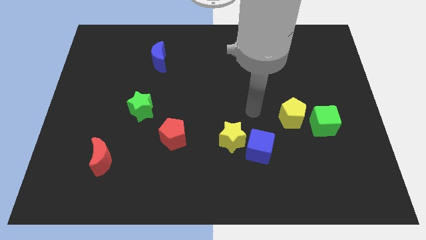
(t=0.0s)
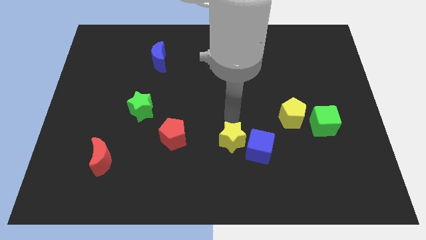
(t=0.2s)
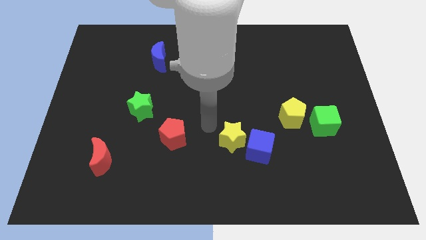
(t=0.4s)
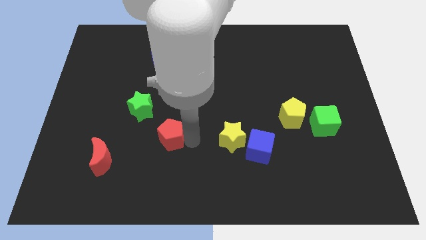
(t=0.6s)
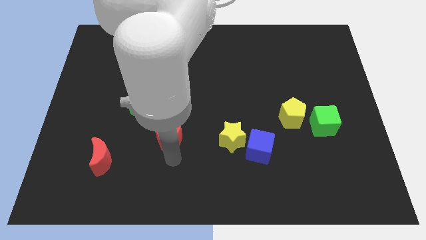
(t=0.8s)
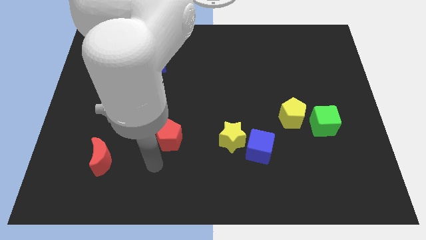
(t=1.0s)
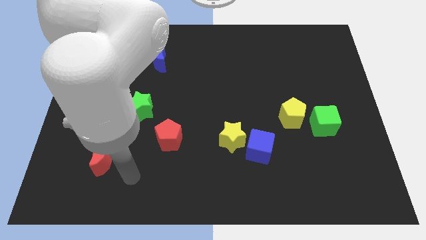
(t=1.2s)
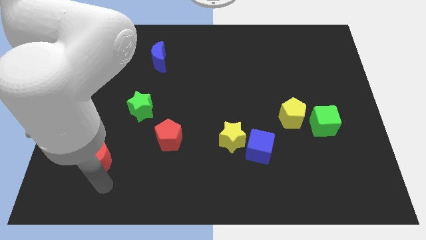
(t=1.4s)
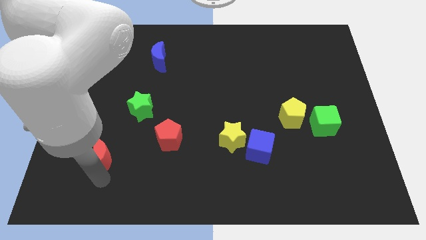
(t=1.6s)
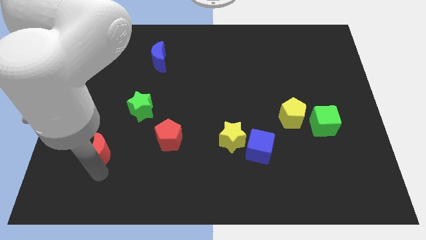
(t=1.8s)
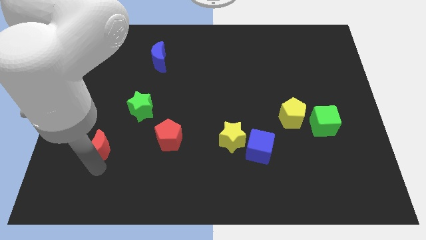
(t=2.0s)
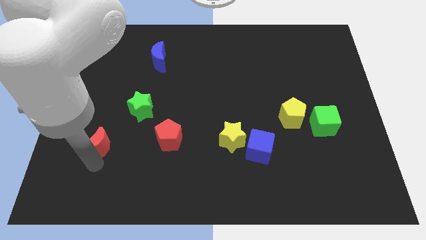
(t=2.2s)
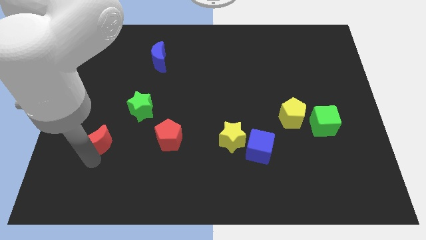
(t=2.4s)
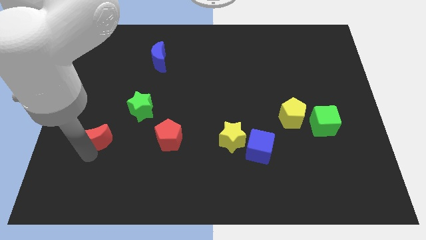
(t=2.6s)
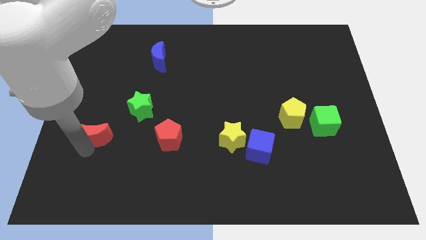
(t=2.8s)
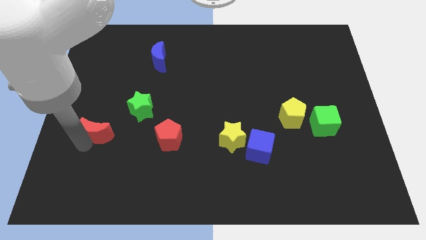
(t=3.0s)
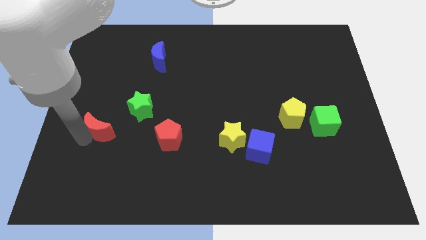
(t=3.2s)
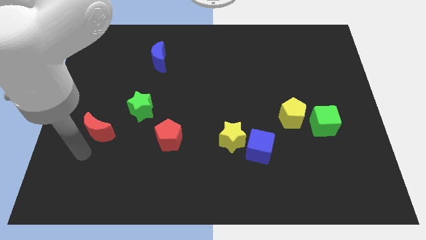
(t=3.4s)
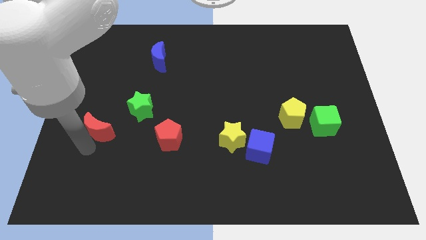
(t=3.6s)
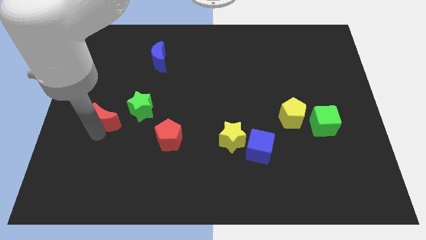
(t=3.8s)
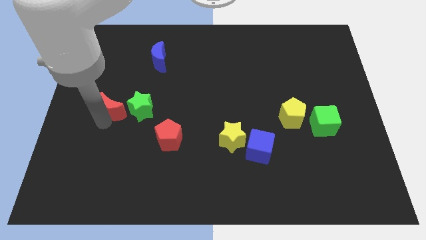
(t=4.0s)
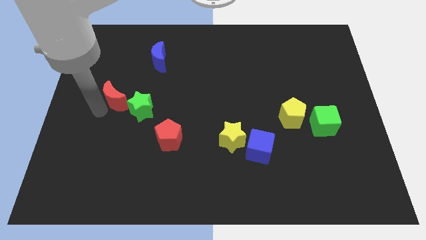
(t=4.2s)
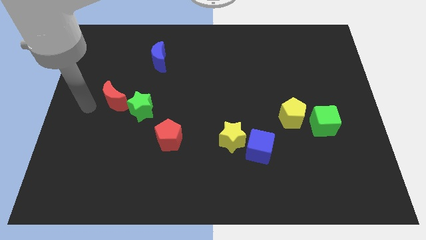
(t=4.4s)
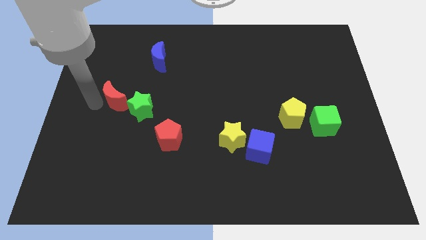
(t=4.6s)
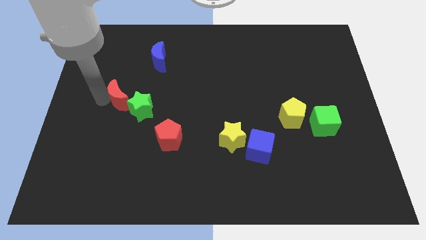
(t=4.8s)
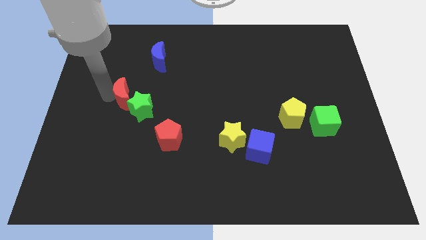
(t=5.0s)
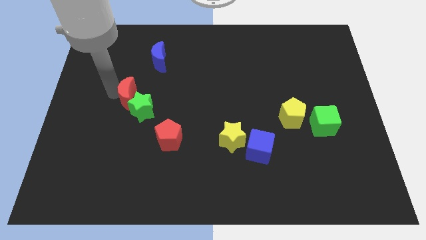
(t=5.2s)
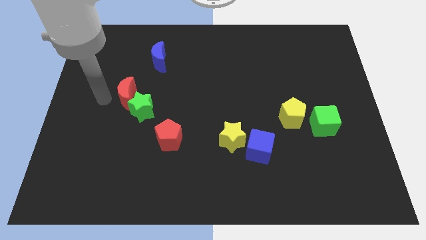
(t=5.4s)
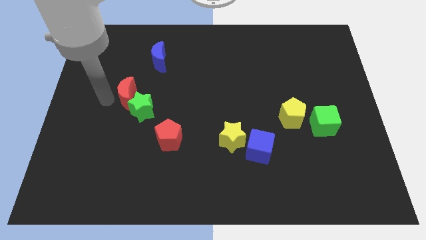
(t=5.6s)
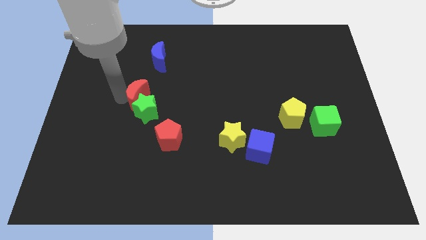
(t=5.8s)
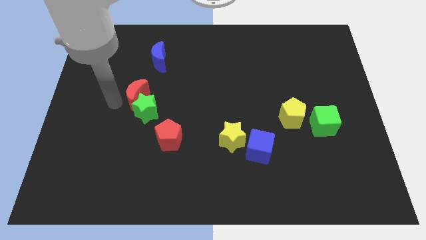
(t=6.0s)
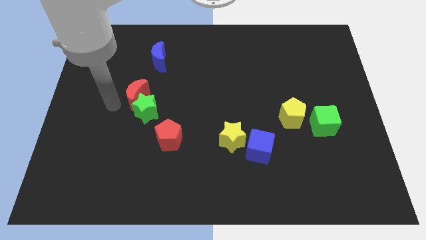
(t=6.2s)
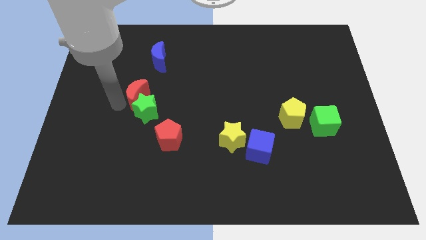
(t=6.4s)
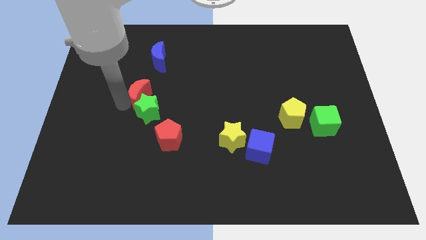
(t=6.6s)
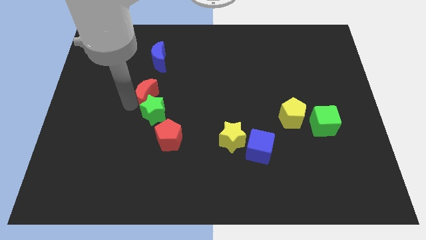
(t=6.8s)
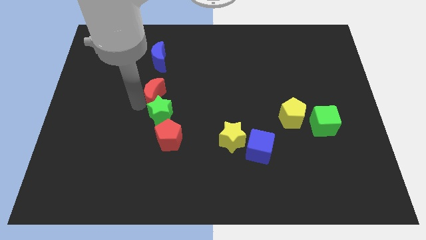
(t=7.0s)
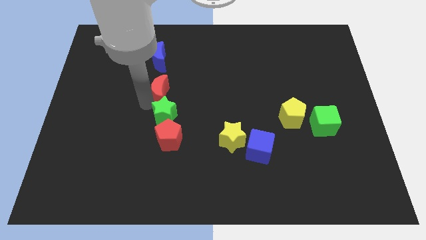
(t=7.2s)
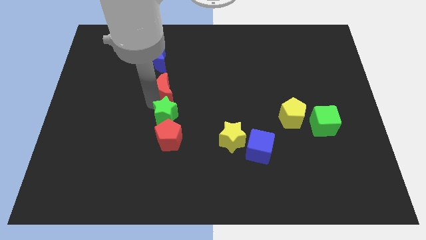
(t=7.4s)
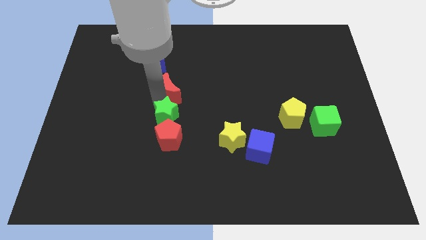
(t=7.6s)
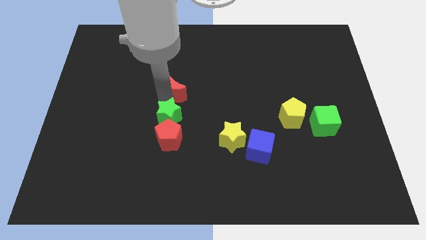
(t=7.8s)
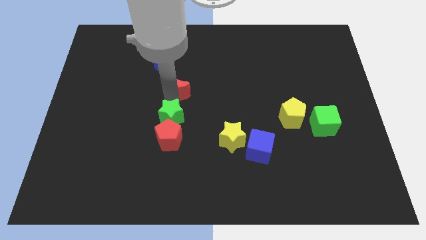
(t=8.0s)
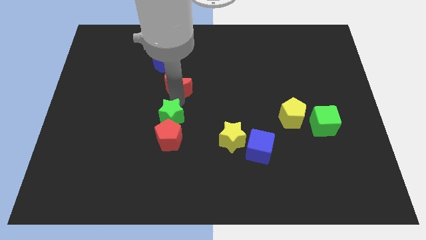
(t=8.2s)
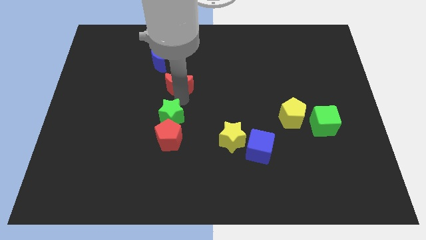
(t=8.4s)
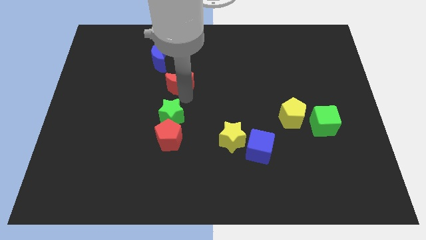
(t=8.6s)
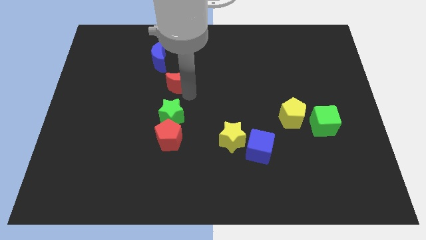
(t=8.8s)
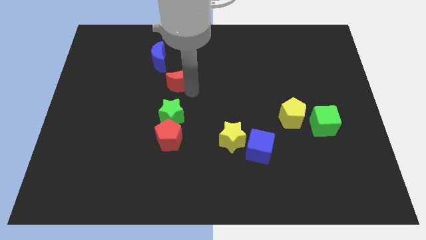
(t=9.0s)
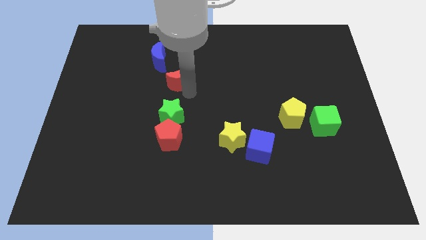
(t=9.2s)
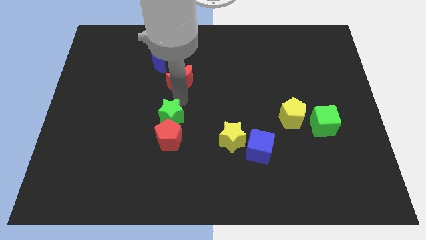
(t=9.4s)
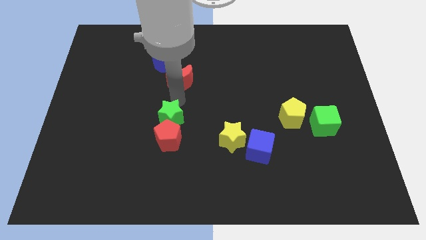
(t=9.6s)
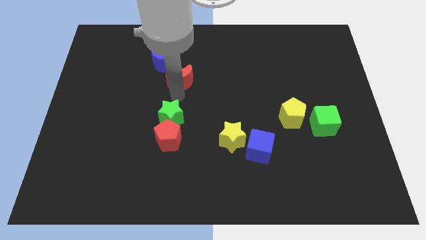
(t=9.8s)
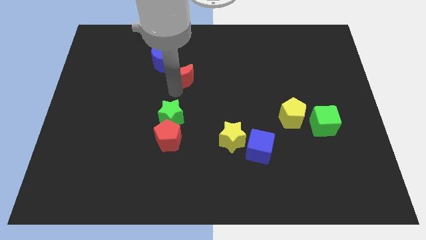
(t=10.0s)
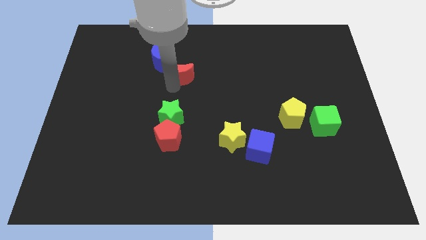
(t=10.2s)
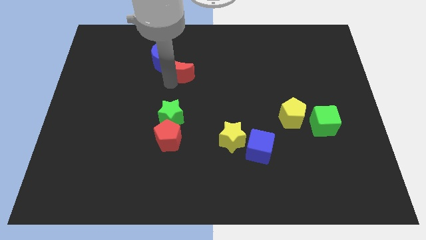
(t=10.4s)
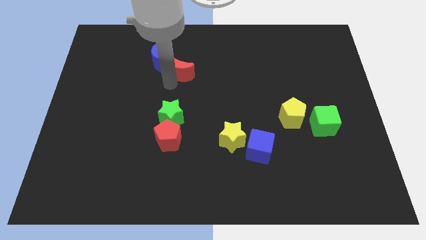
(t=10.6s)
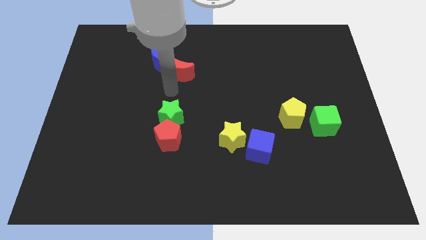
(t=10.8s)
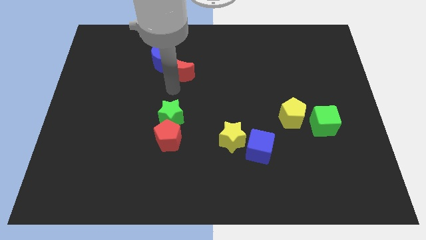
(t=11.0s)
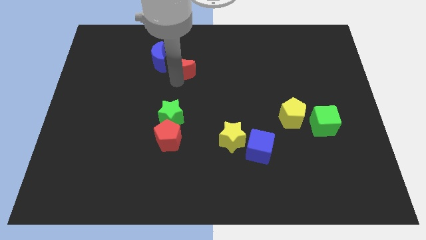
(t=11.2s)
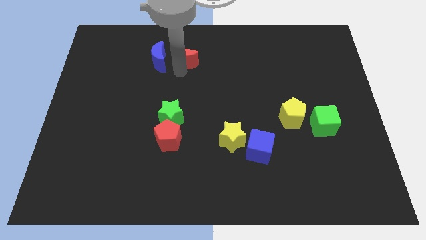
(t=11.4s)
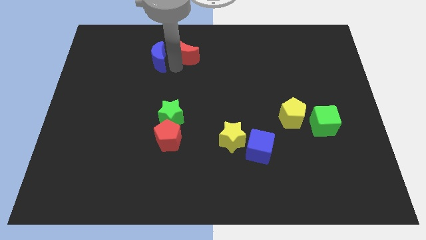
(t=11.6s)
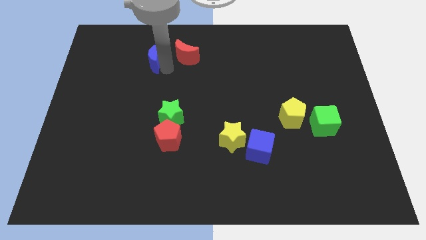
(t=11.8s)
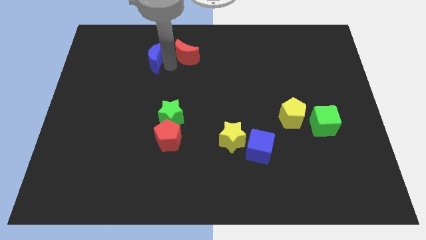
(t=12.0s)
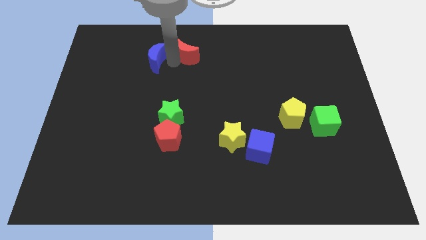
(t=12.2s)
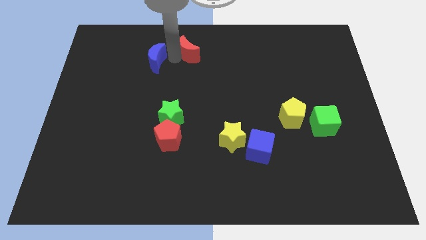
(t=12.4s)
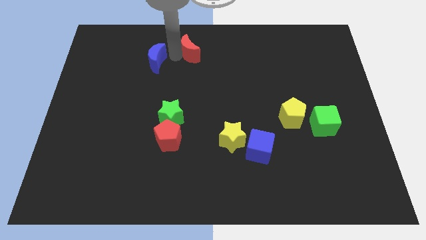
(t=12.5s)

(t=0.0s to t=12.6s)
slide the red moon to the towards your base
